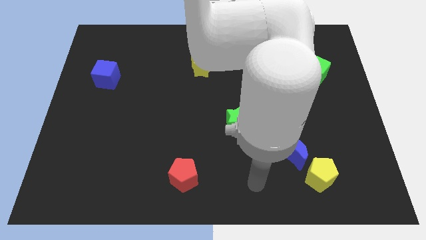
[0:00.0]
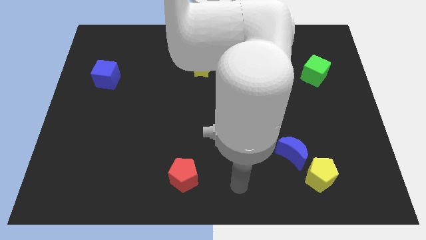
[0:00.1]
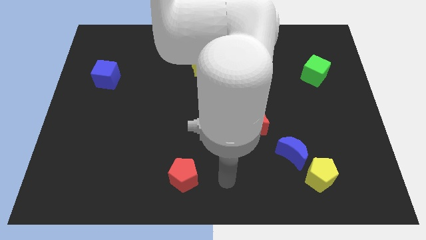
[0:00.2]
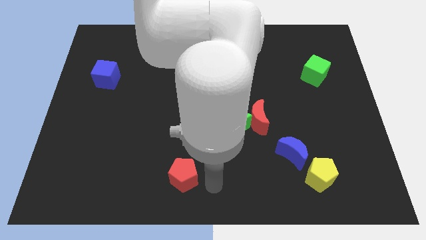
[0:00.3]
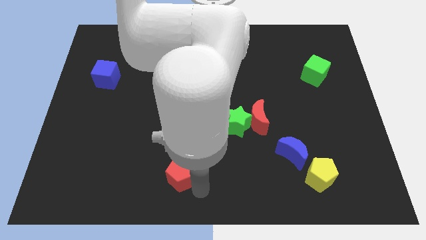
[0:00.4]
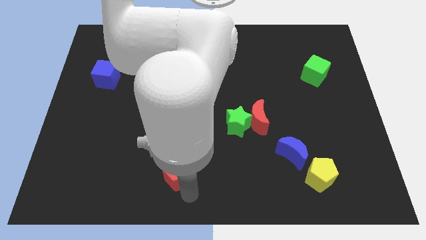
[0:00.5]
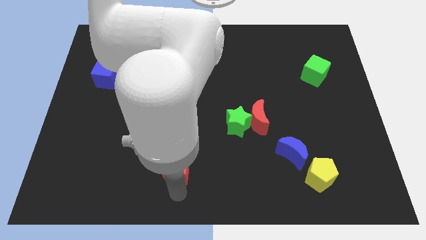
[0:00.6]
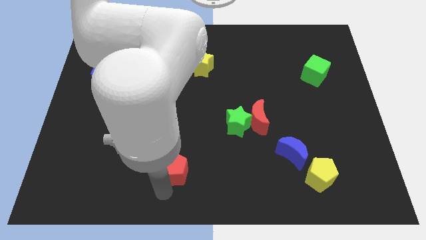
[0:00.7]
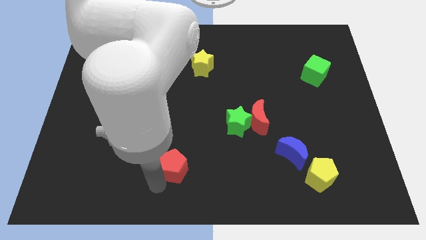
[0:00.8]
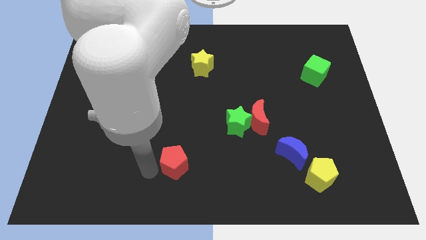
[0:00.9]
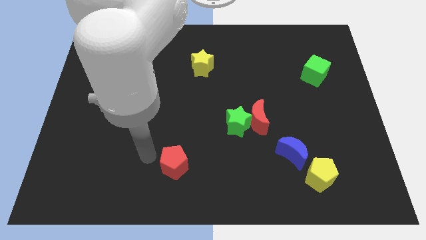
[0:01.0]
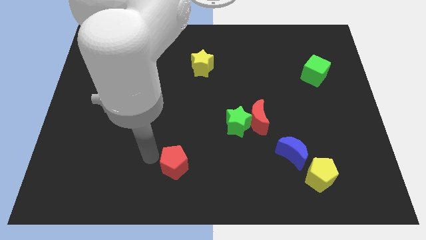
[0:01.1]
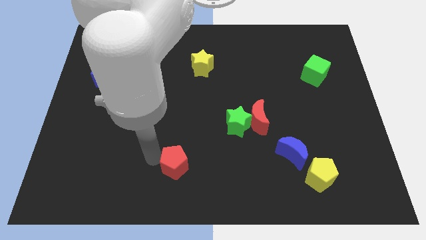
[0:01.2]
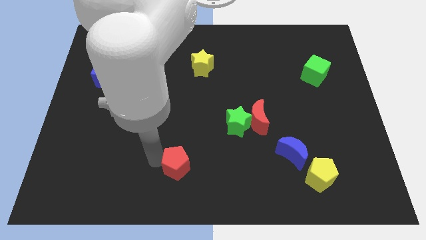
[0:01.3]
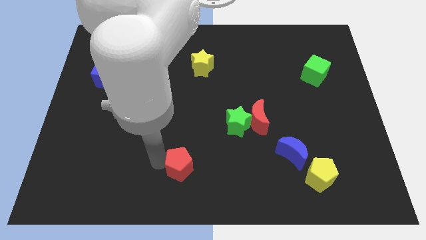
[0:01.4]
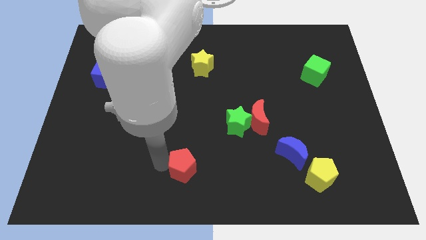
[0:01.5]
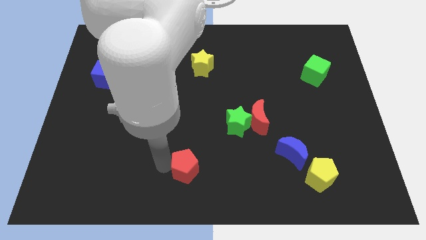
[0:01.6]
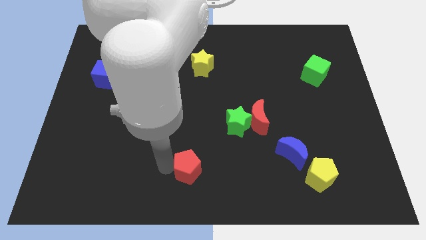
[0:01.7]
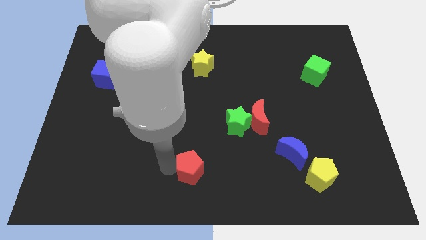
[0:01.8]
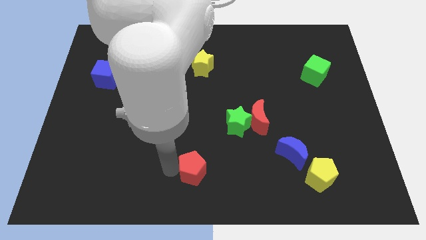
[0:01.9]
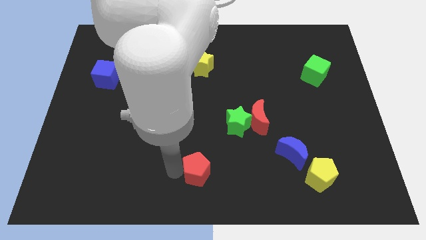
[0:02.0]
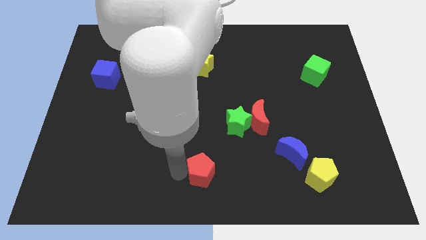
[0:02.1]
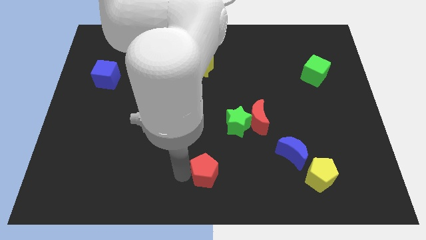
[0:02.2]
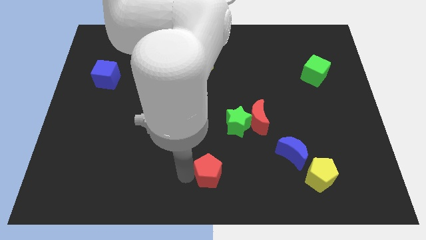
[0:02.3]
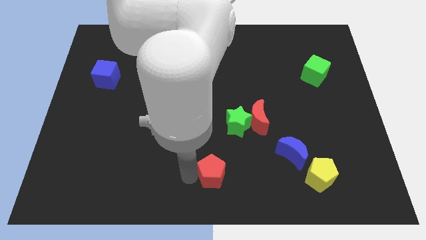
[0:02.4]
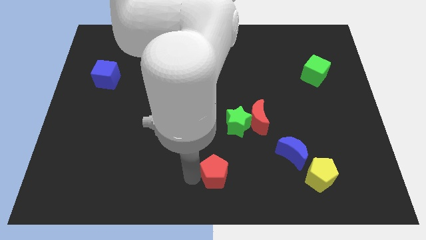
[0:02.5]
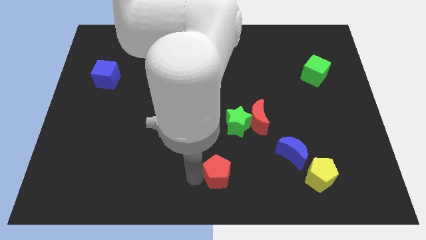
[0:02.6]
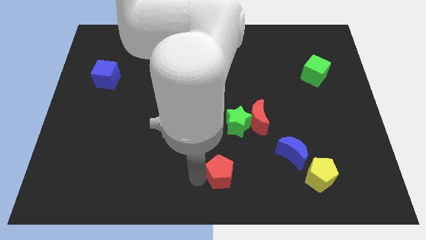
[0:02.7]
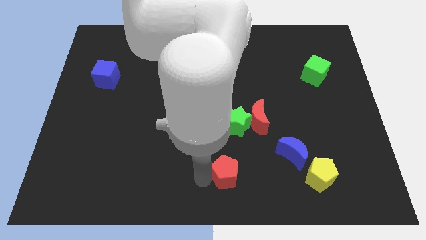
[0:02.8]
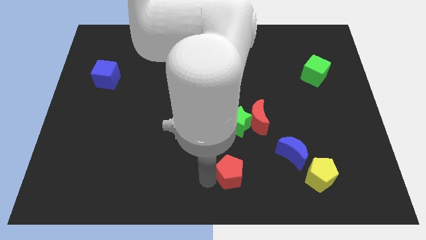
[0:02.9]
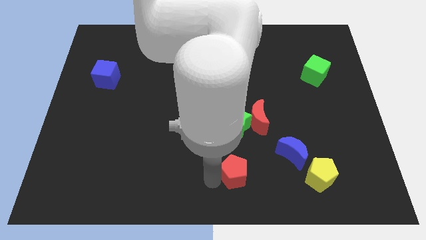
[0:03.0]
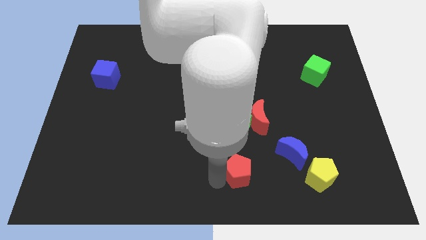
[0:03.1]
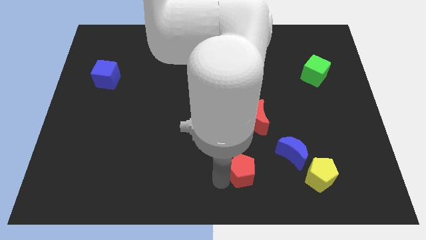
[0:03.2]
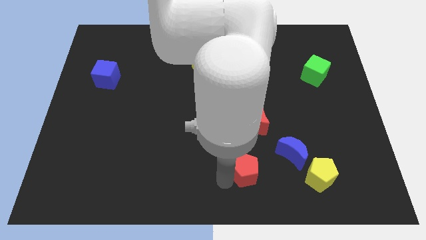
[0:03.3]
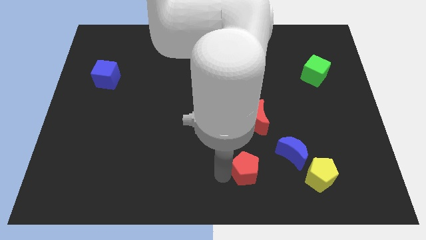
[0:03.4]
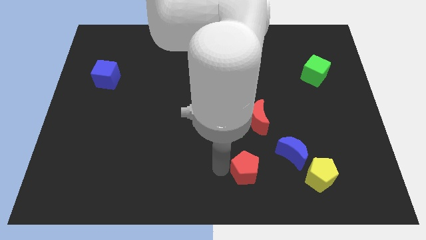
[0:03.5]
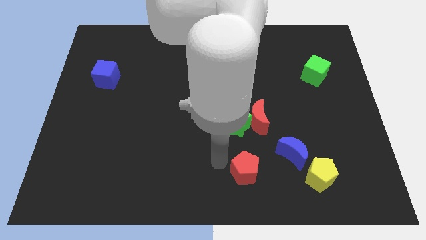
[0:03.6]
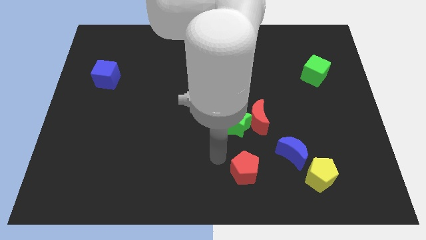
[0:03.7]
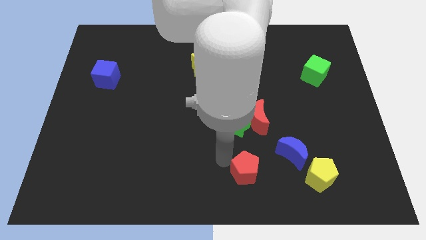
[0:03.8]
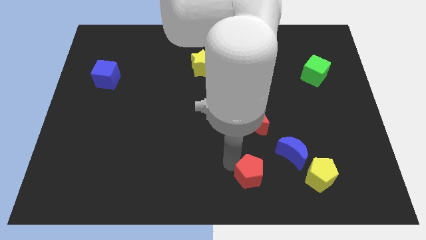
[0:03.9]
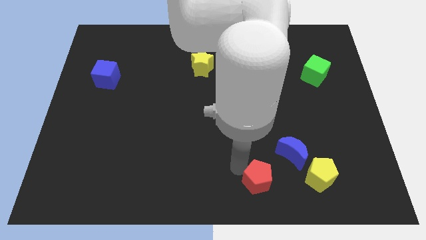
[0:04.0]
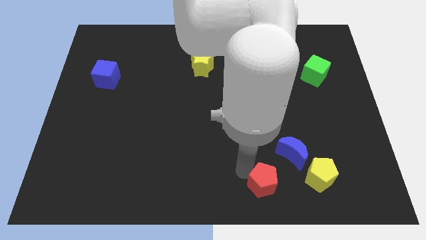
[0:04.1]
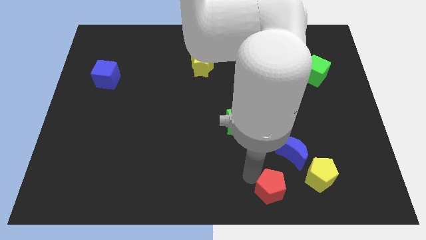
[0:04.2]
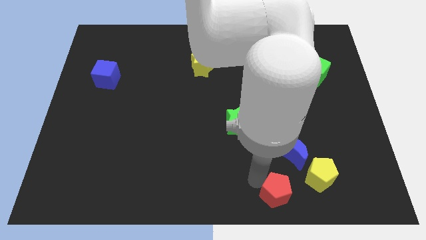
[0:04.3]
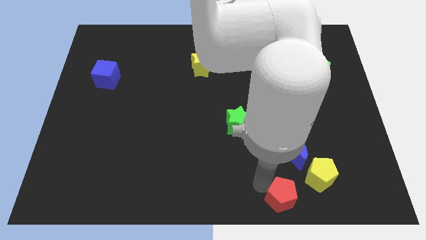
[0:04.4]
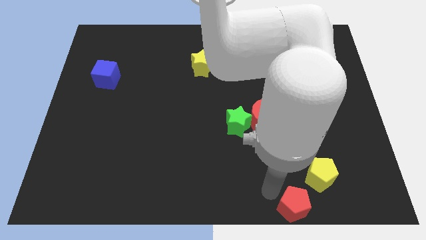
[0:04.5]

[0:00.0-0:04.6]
slide the red pentagon right

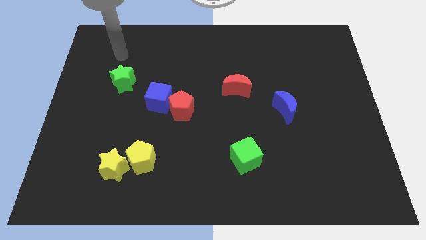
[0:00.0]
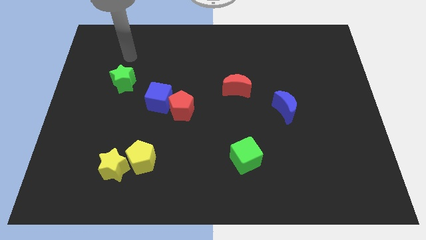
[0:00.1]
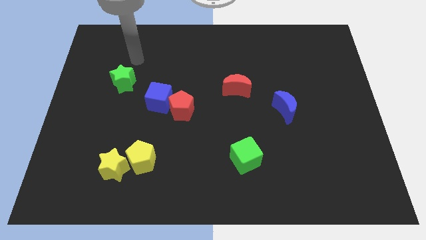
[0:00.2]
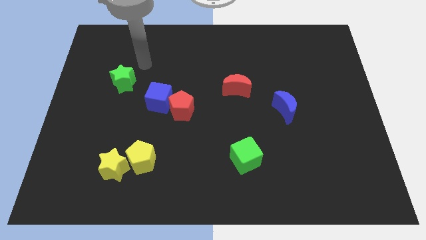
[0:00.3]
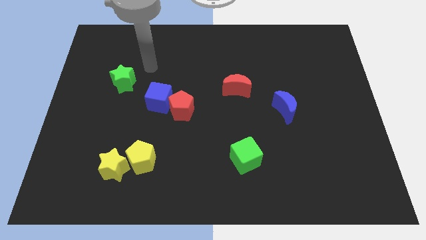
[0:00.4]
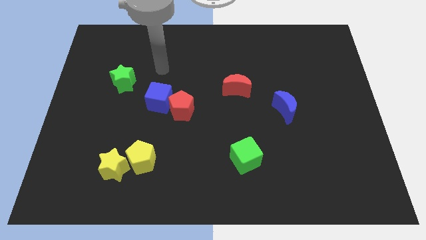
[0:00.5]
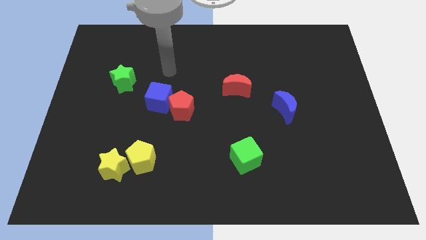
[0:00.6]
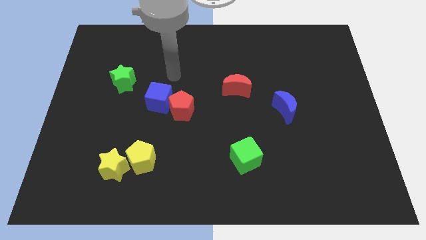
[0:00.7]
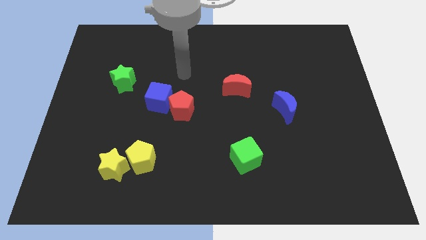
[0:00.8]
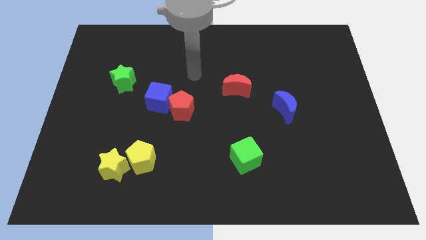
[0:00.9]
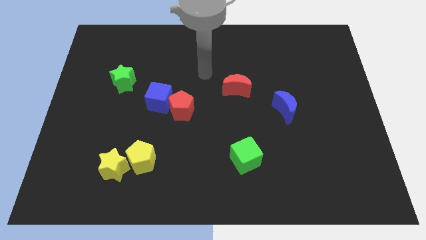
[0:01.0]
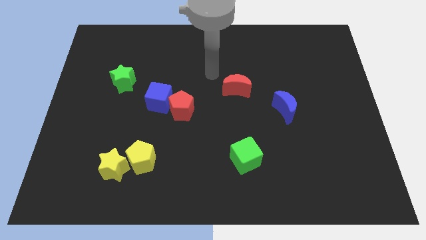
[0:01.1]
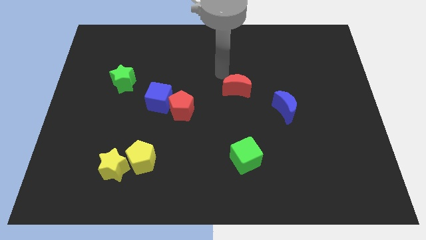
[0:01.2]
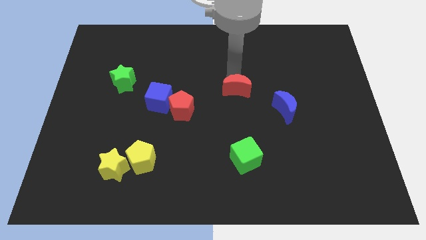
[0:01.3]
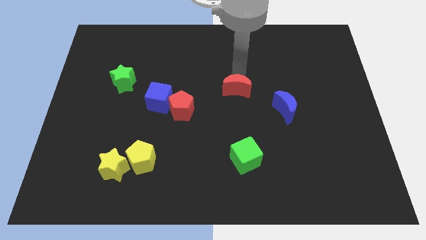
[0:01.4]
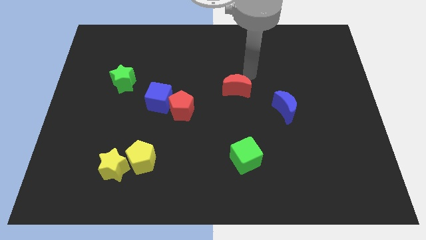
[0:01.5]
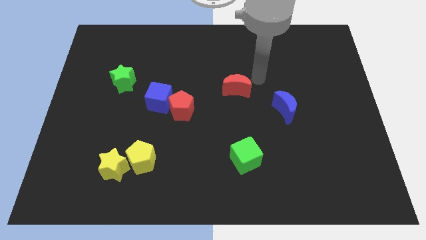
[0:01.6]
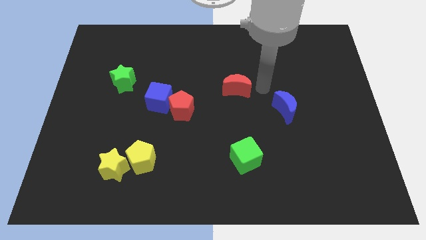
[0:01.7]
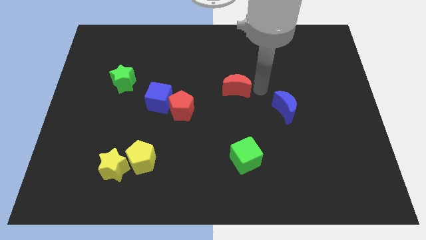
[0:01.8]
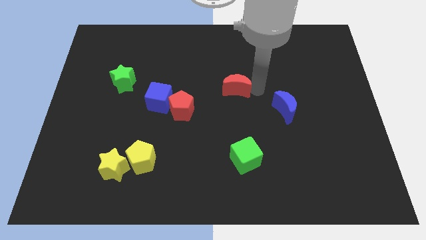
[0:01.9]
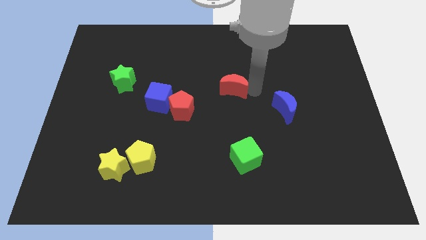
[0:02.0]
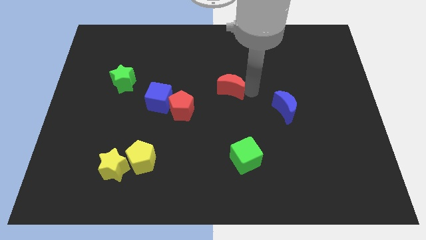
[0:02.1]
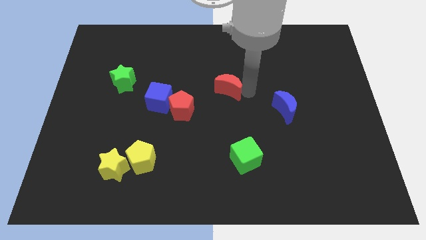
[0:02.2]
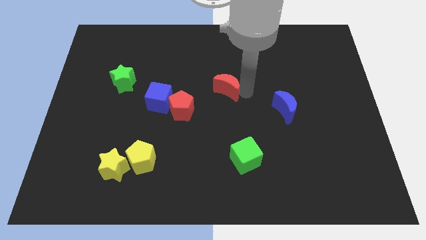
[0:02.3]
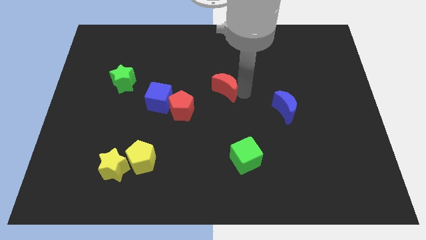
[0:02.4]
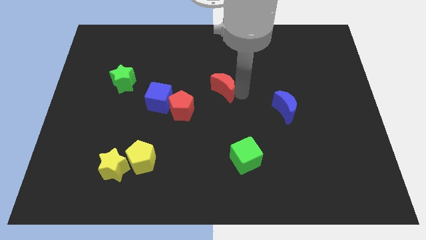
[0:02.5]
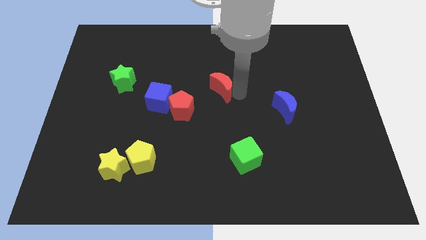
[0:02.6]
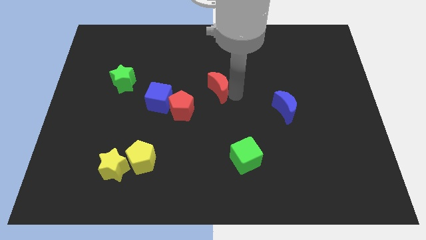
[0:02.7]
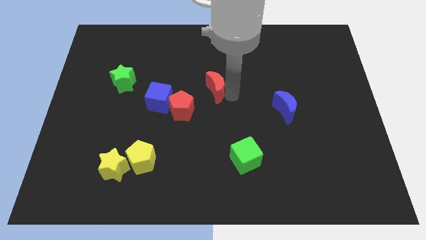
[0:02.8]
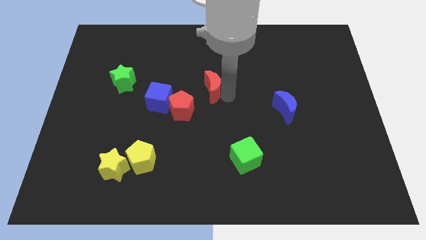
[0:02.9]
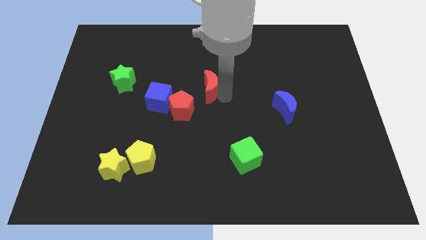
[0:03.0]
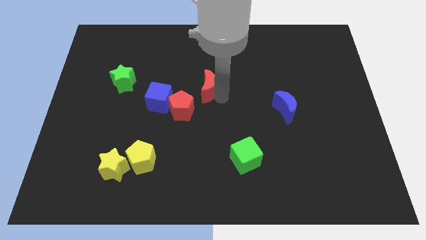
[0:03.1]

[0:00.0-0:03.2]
slightly push the red moon to the left
